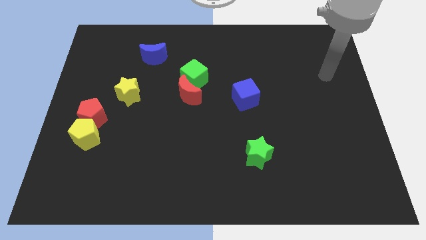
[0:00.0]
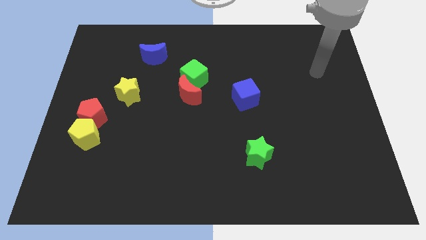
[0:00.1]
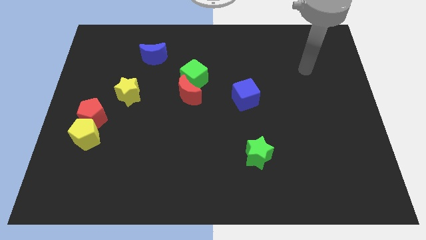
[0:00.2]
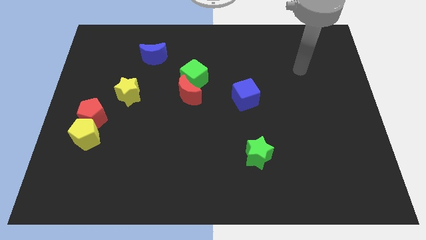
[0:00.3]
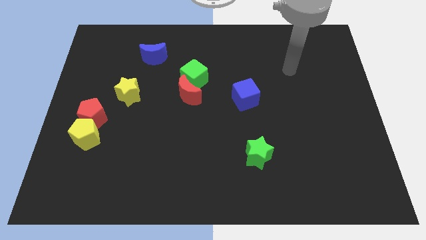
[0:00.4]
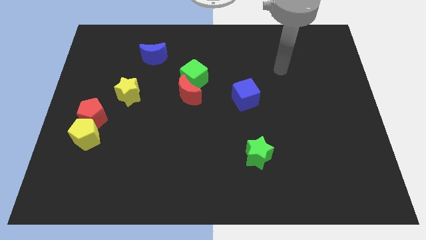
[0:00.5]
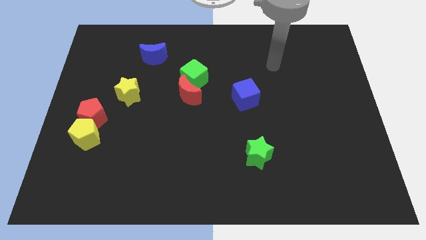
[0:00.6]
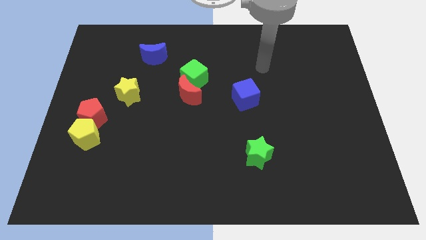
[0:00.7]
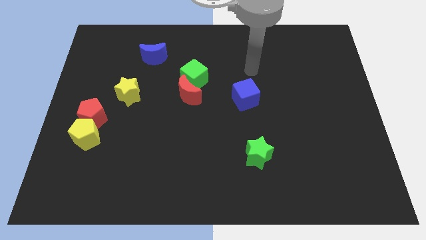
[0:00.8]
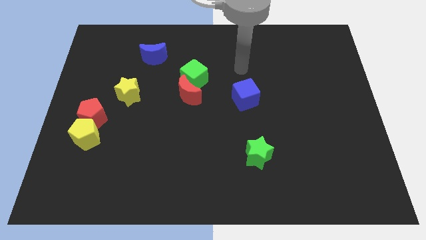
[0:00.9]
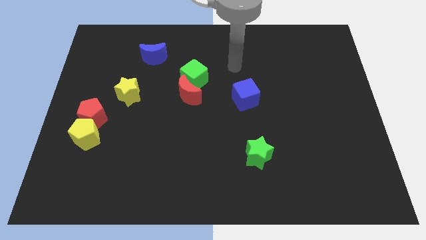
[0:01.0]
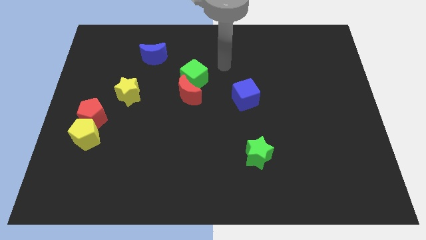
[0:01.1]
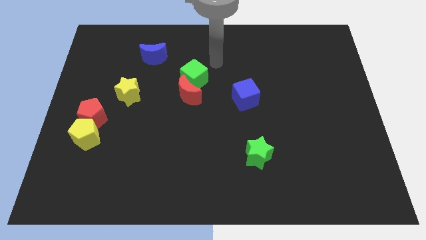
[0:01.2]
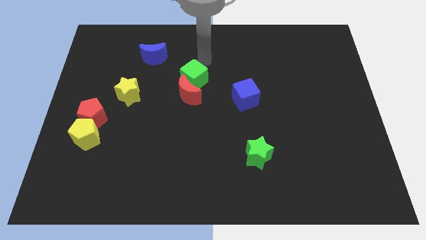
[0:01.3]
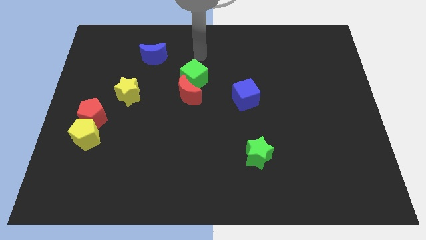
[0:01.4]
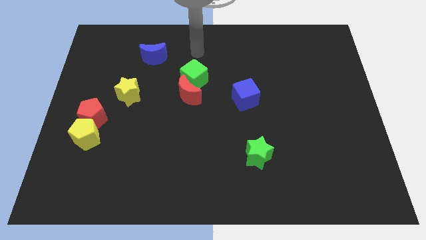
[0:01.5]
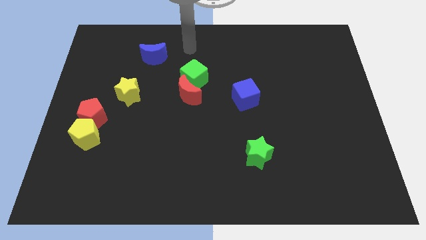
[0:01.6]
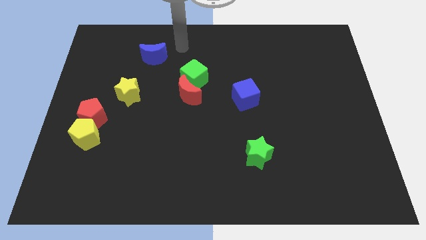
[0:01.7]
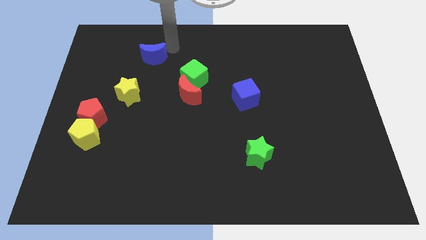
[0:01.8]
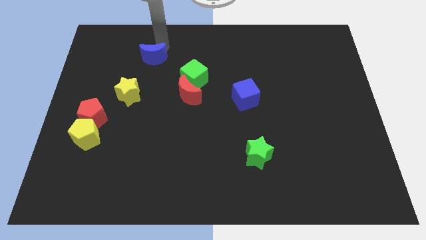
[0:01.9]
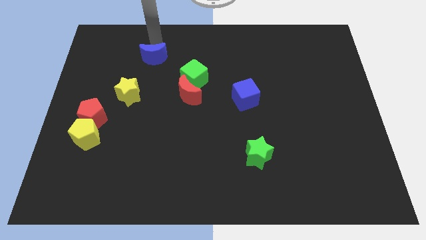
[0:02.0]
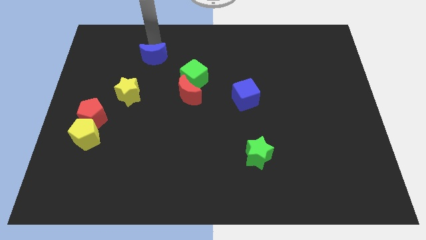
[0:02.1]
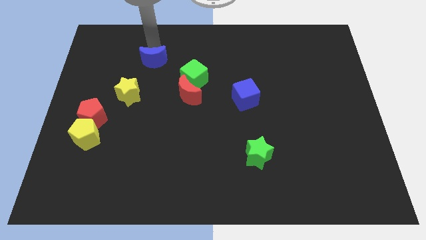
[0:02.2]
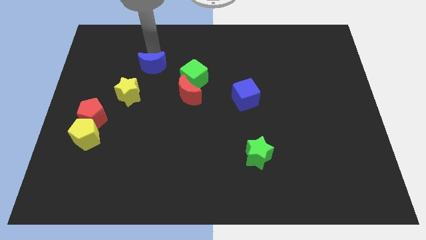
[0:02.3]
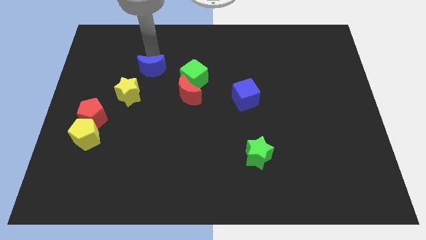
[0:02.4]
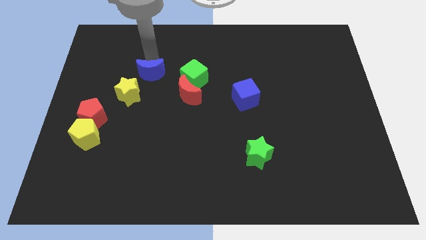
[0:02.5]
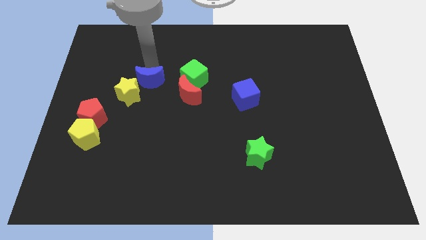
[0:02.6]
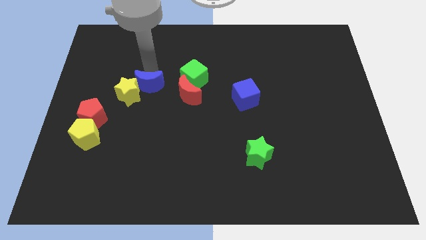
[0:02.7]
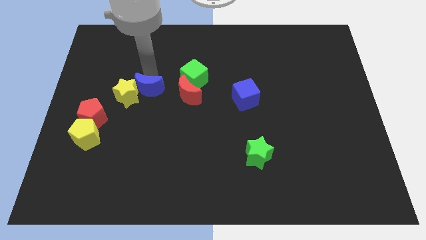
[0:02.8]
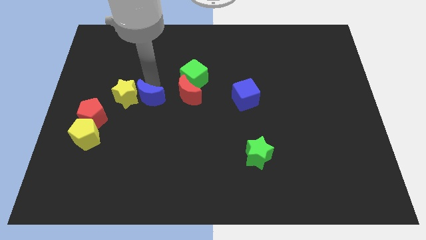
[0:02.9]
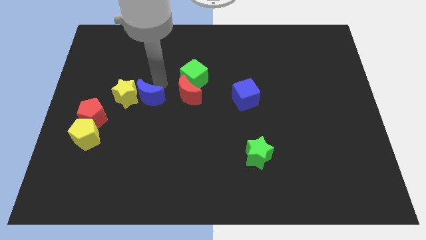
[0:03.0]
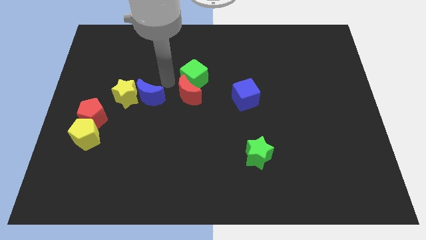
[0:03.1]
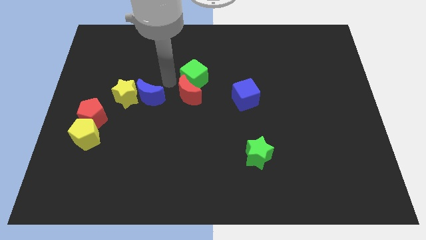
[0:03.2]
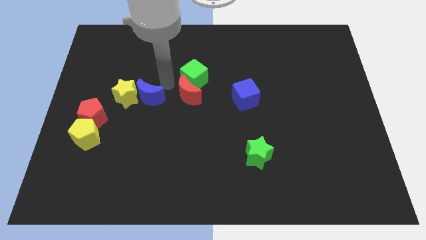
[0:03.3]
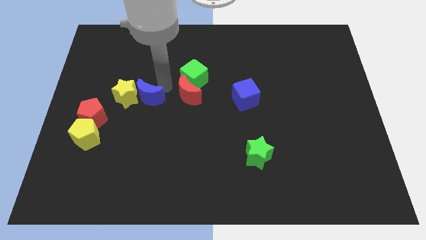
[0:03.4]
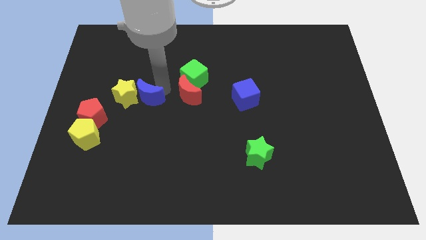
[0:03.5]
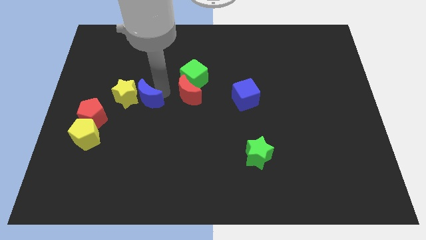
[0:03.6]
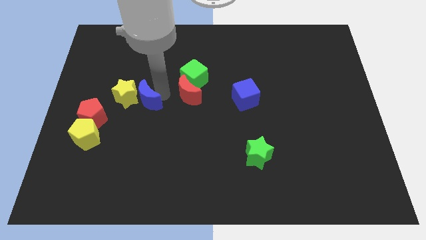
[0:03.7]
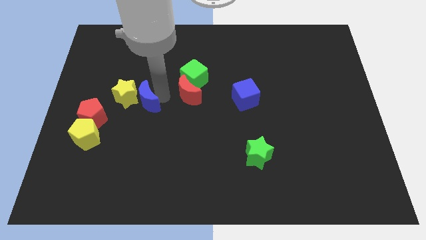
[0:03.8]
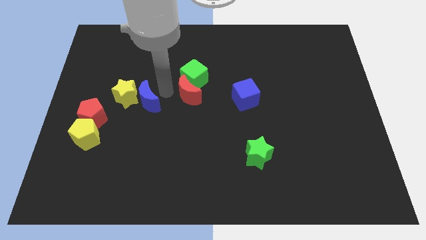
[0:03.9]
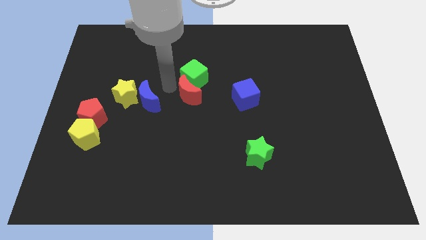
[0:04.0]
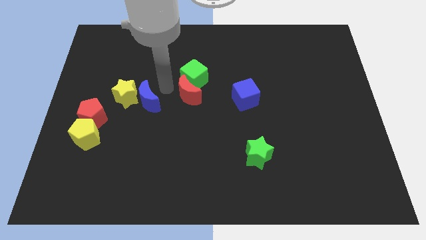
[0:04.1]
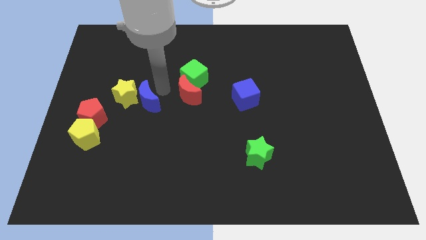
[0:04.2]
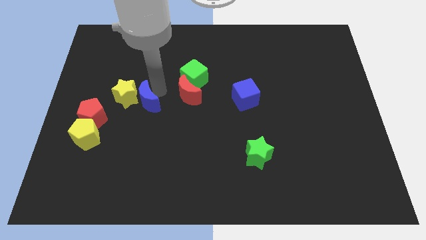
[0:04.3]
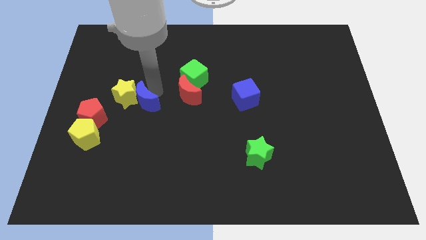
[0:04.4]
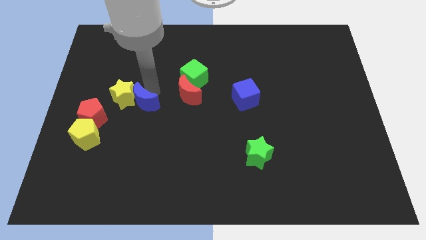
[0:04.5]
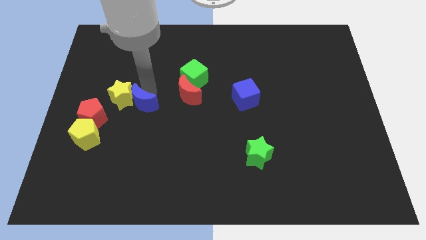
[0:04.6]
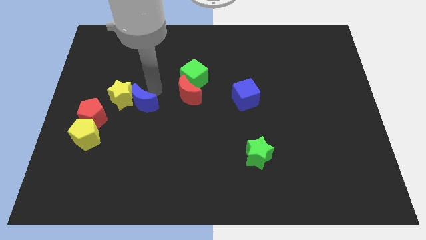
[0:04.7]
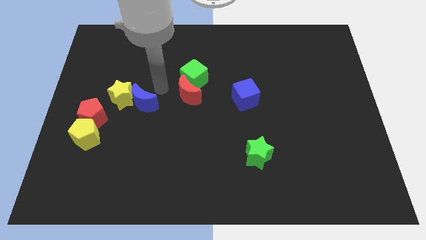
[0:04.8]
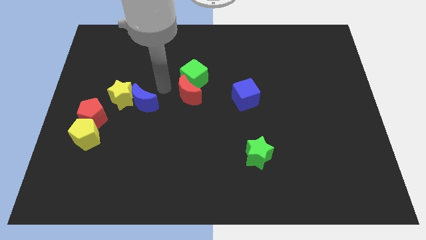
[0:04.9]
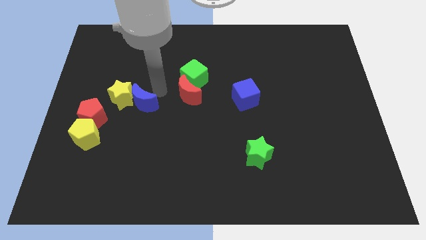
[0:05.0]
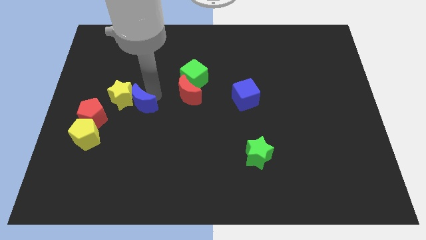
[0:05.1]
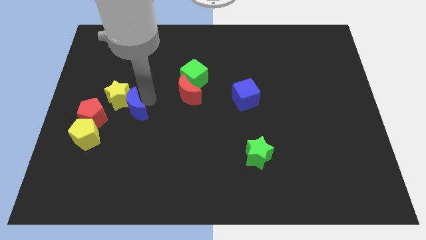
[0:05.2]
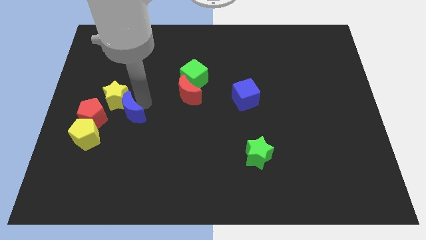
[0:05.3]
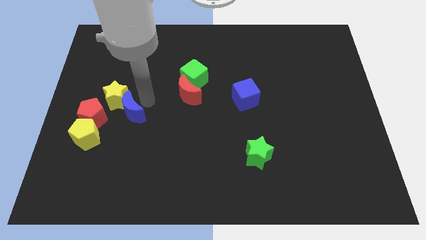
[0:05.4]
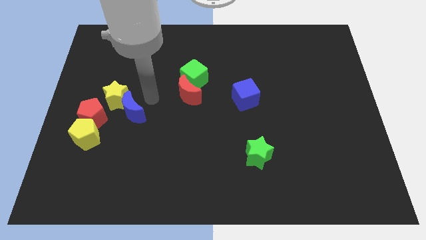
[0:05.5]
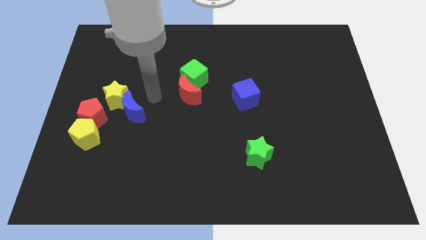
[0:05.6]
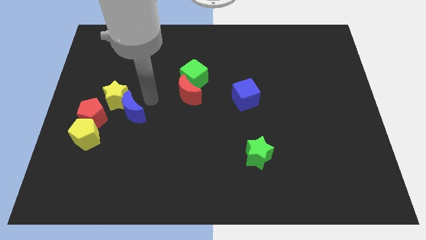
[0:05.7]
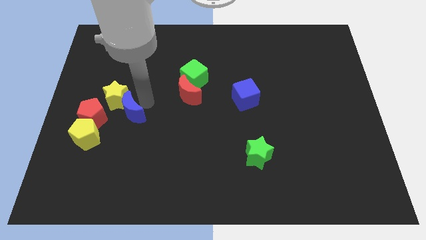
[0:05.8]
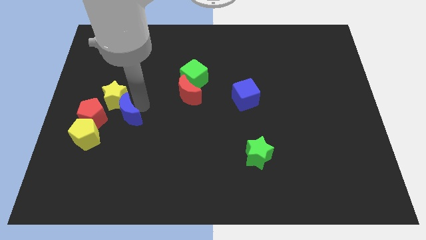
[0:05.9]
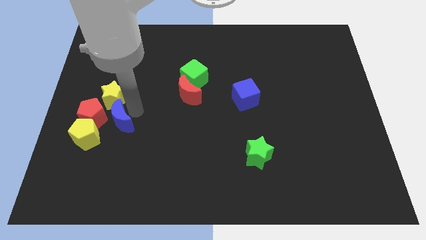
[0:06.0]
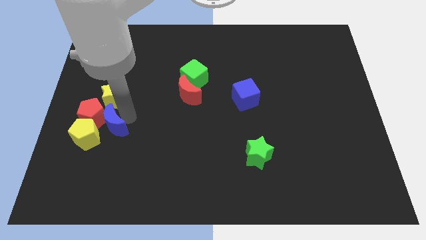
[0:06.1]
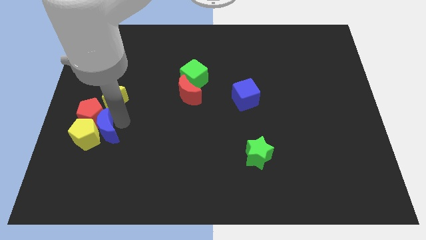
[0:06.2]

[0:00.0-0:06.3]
put the blue moon close to the yellow pentagon
